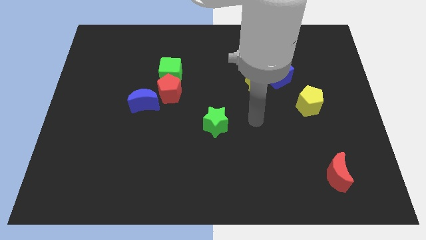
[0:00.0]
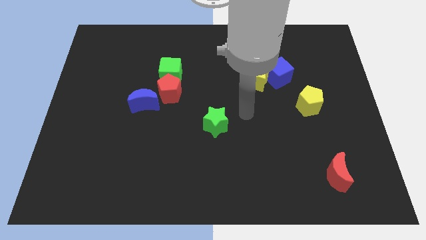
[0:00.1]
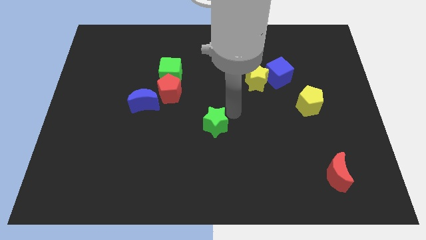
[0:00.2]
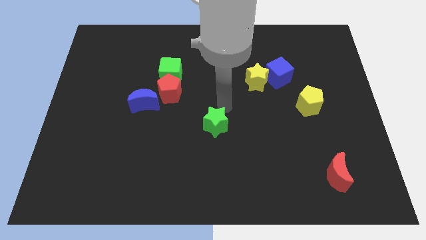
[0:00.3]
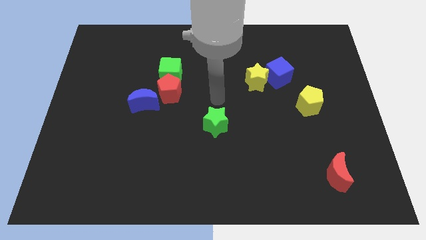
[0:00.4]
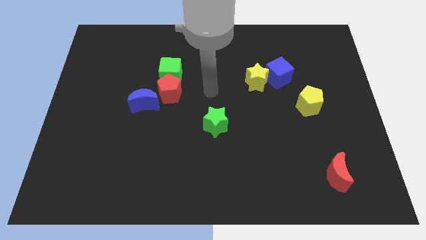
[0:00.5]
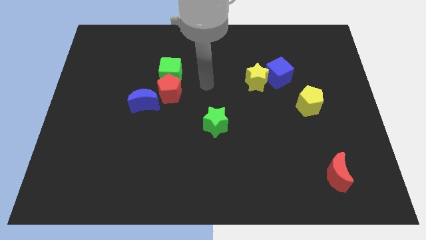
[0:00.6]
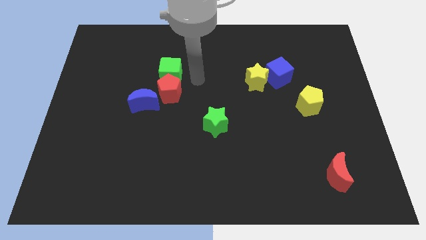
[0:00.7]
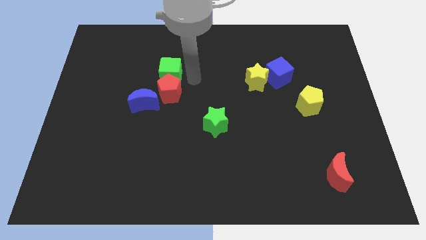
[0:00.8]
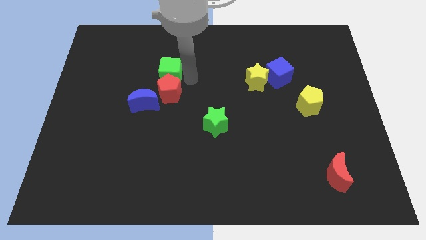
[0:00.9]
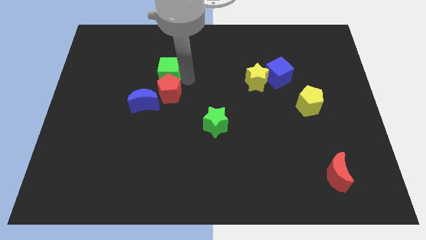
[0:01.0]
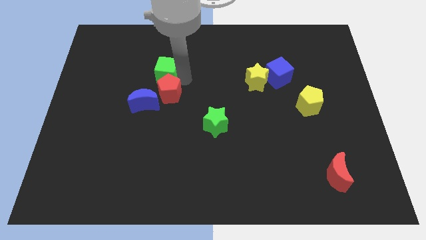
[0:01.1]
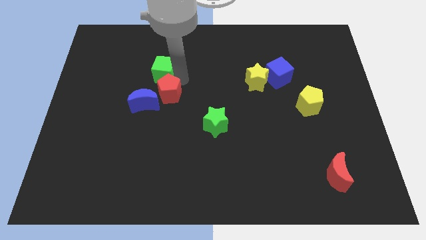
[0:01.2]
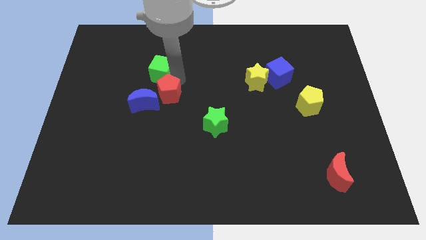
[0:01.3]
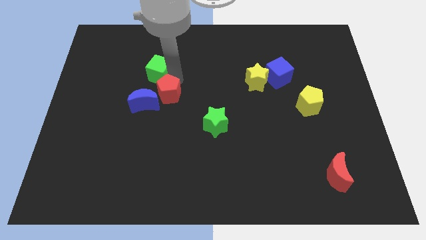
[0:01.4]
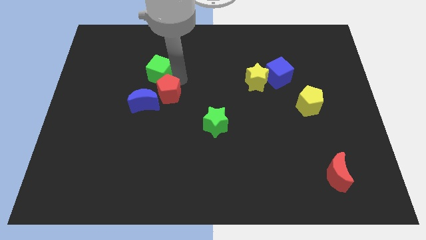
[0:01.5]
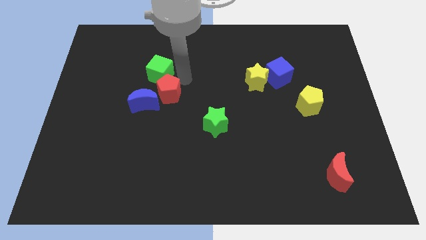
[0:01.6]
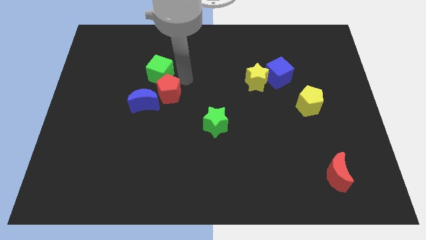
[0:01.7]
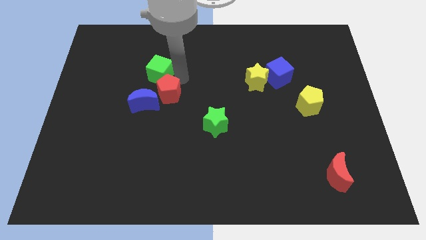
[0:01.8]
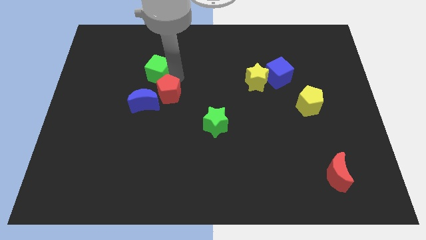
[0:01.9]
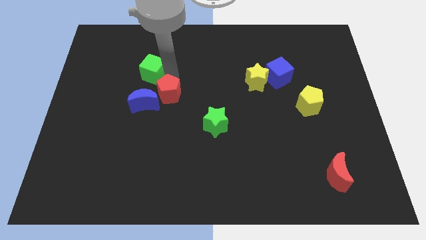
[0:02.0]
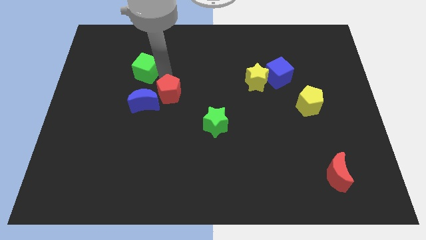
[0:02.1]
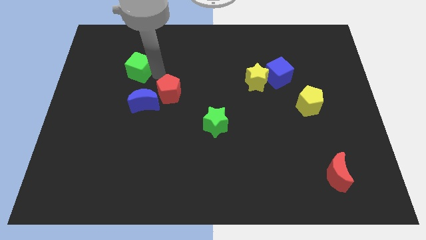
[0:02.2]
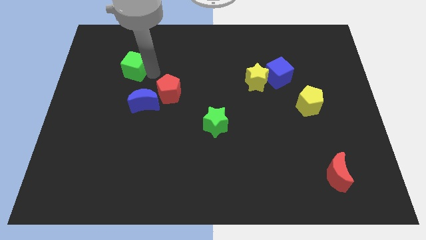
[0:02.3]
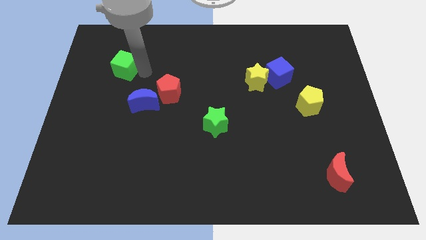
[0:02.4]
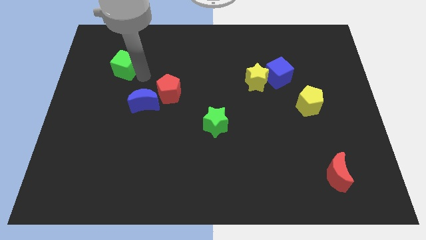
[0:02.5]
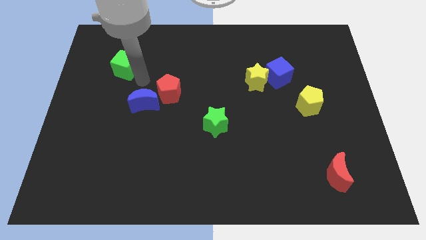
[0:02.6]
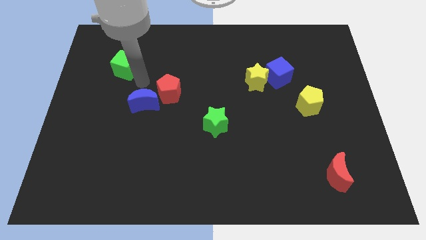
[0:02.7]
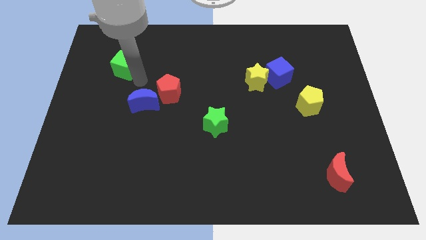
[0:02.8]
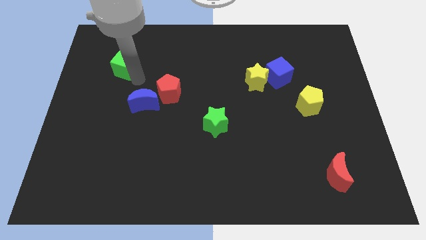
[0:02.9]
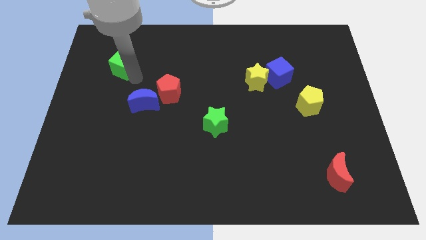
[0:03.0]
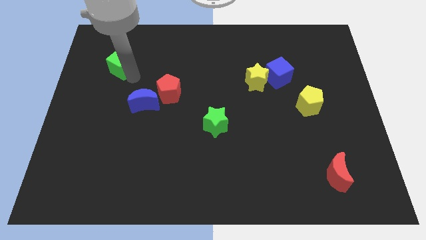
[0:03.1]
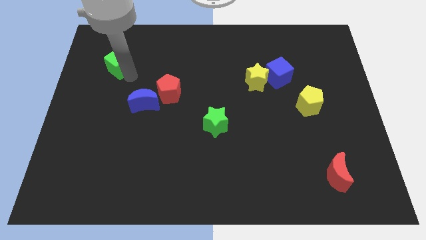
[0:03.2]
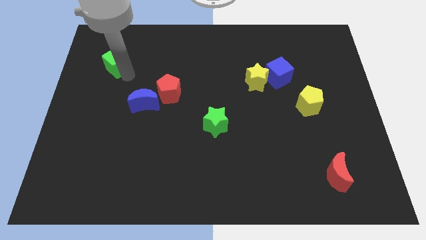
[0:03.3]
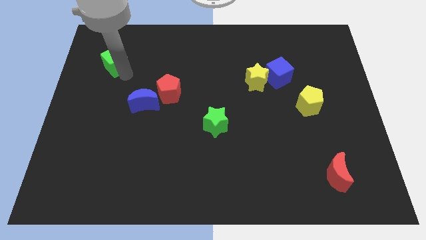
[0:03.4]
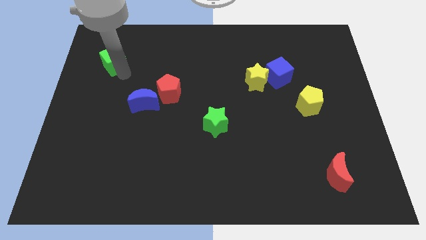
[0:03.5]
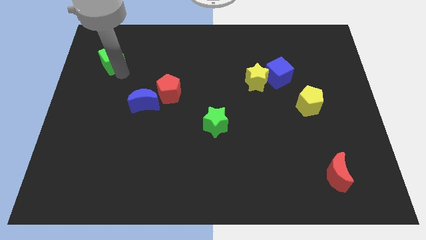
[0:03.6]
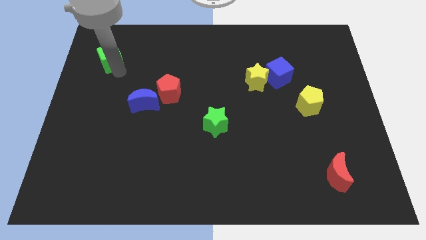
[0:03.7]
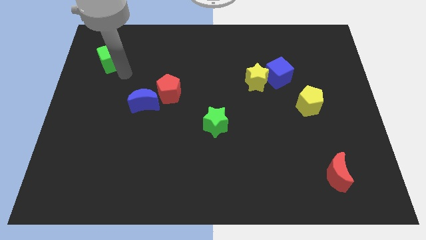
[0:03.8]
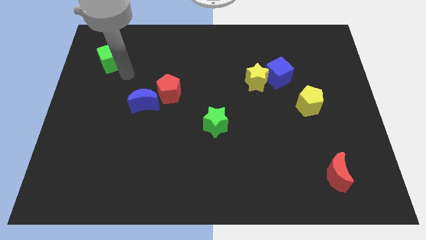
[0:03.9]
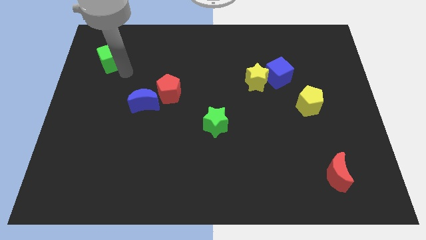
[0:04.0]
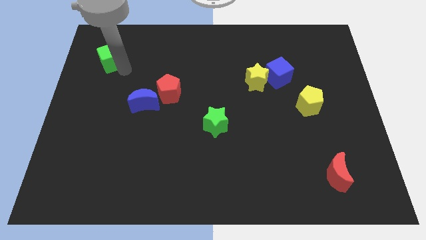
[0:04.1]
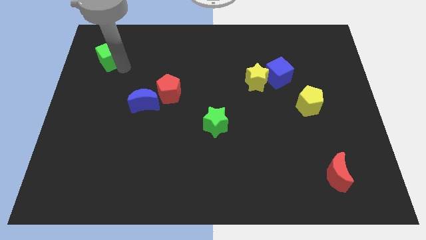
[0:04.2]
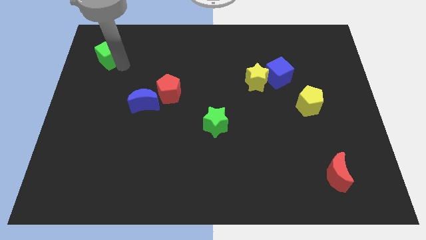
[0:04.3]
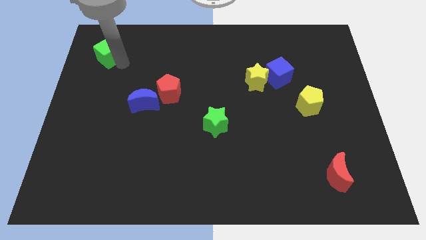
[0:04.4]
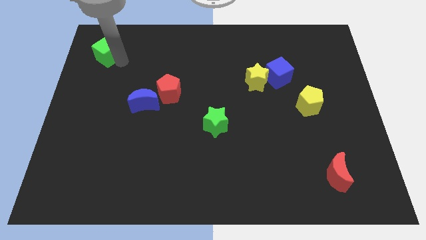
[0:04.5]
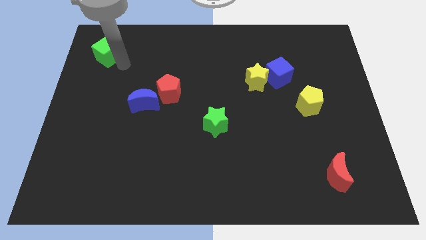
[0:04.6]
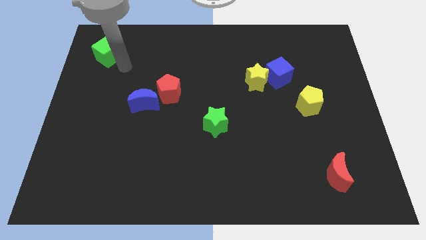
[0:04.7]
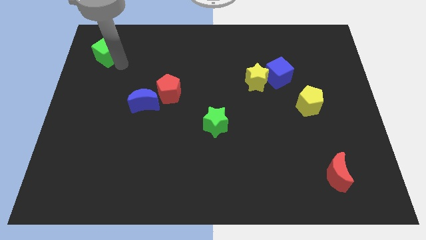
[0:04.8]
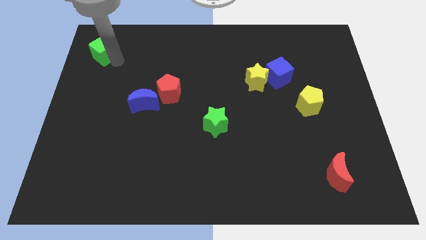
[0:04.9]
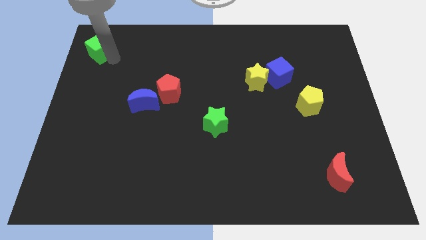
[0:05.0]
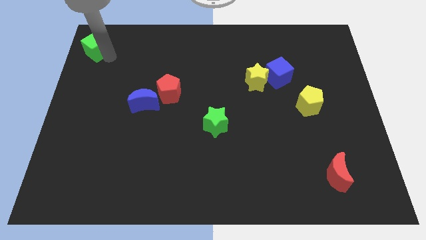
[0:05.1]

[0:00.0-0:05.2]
put the green cube to the top left of the board

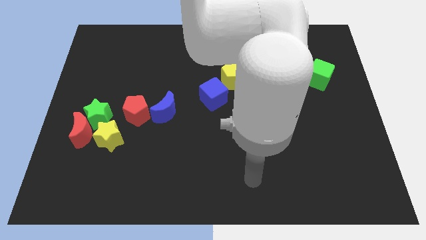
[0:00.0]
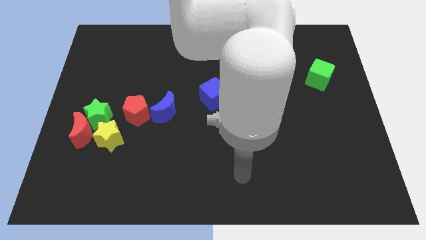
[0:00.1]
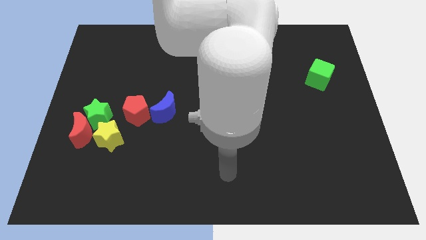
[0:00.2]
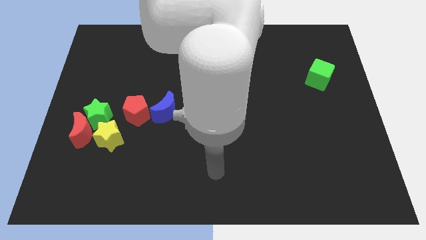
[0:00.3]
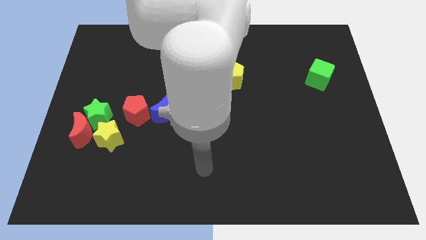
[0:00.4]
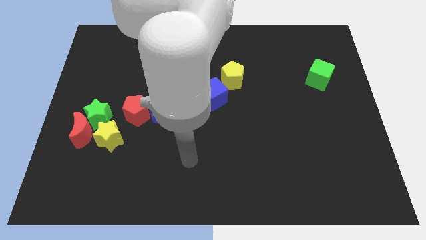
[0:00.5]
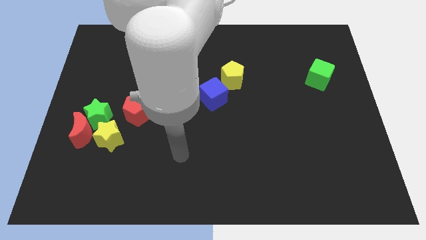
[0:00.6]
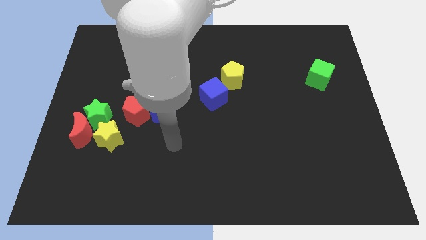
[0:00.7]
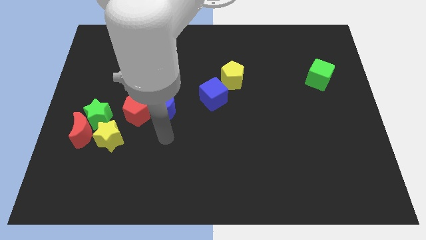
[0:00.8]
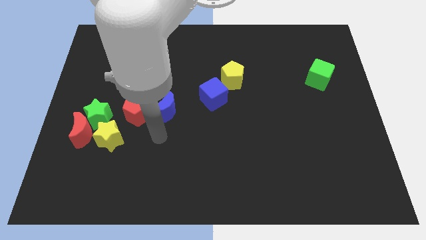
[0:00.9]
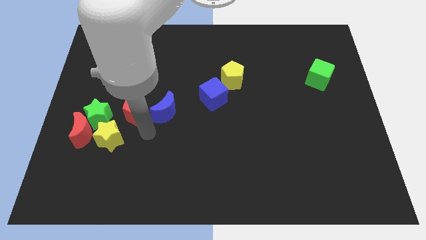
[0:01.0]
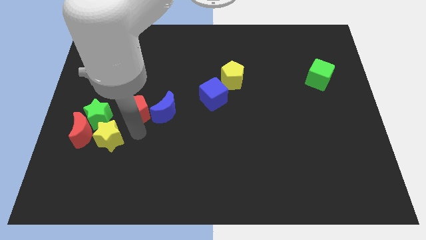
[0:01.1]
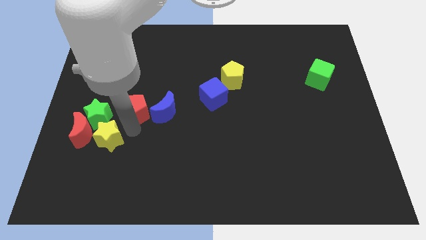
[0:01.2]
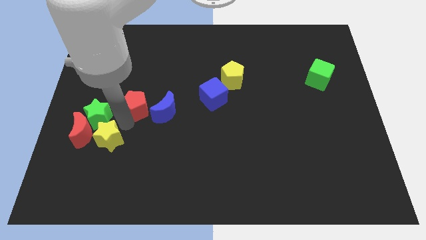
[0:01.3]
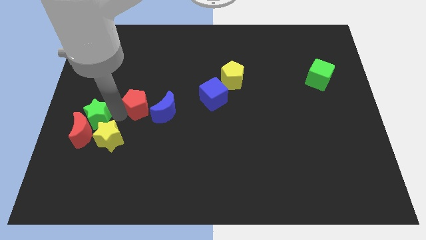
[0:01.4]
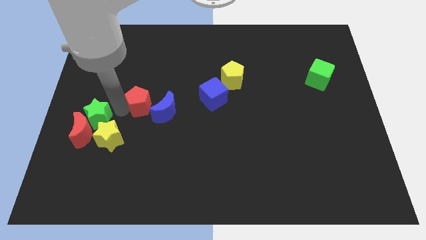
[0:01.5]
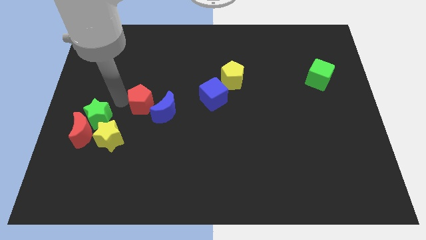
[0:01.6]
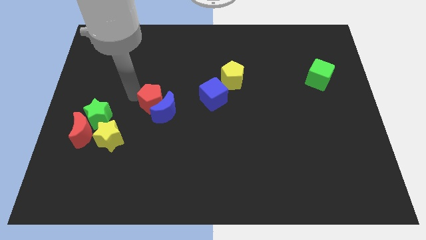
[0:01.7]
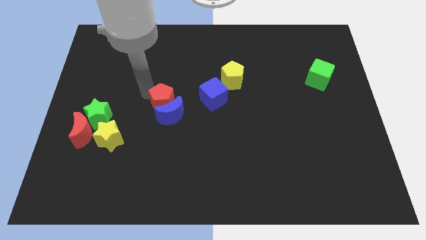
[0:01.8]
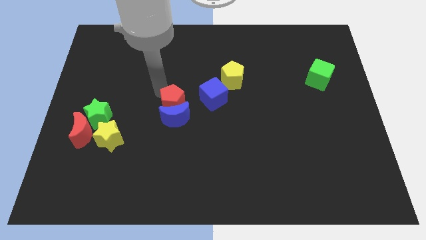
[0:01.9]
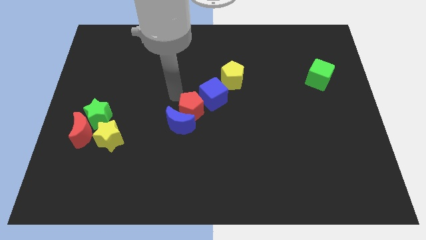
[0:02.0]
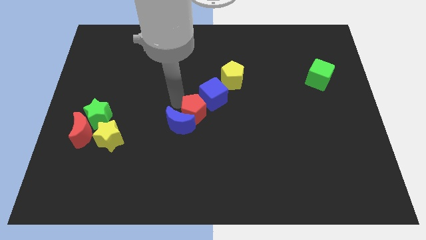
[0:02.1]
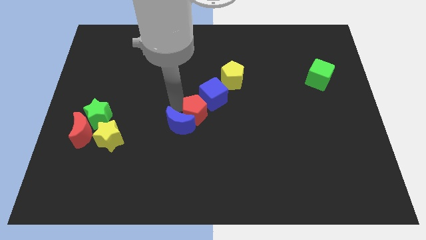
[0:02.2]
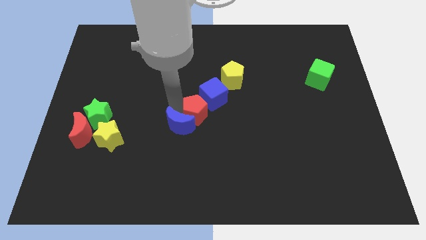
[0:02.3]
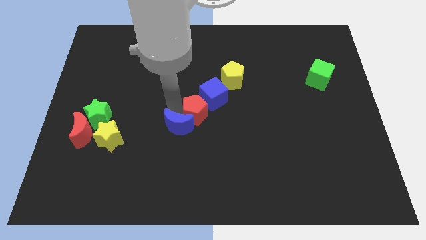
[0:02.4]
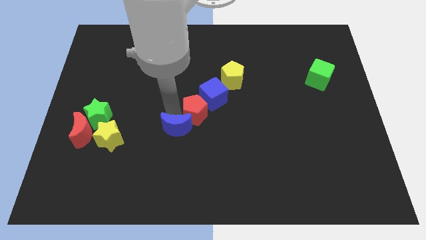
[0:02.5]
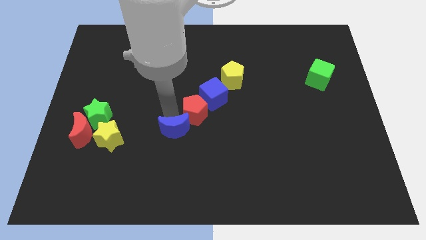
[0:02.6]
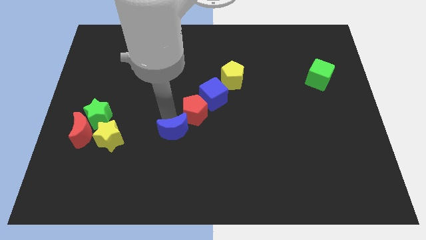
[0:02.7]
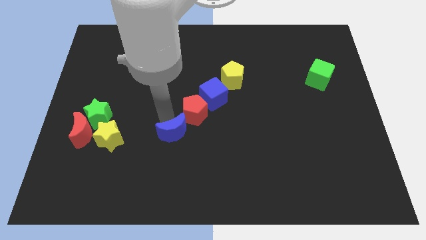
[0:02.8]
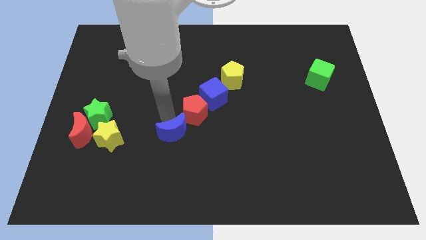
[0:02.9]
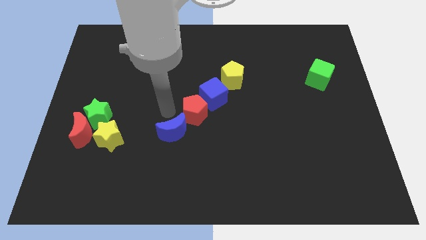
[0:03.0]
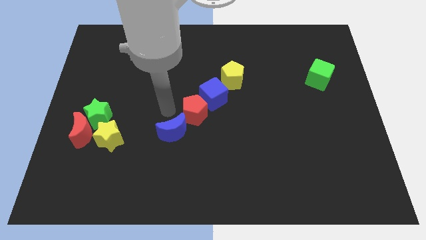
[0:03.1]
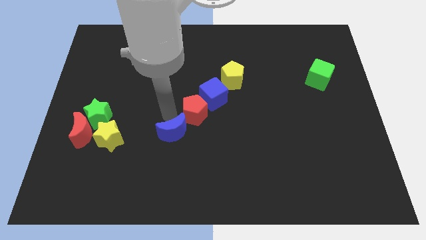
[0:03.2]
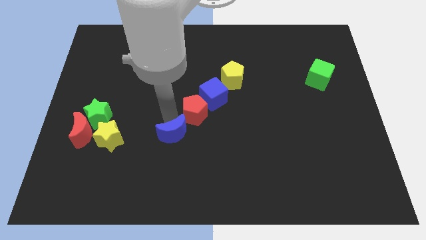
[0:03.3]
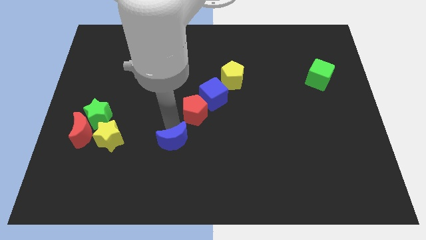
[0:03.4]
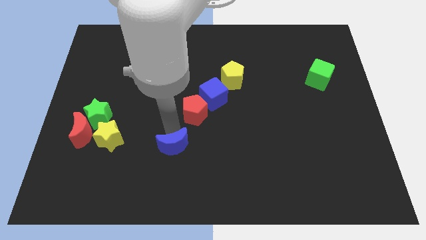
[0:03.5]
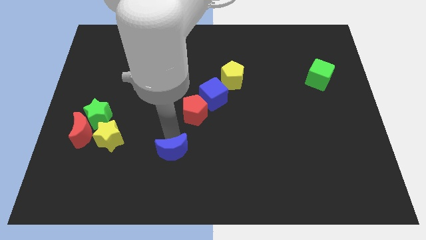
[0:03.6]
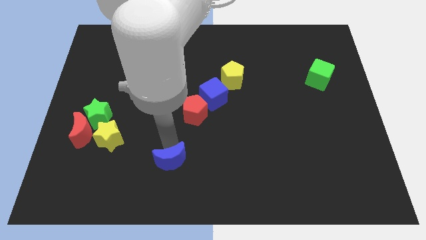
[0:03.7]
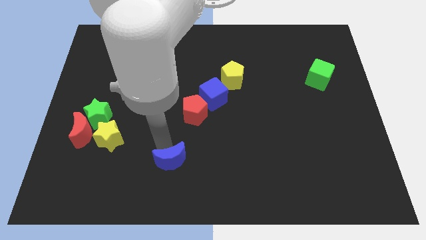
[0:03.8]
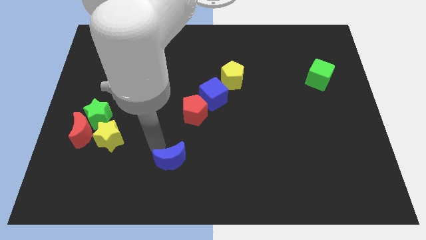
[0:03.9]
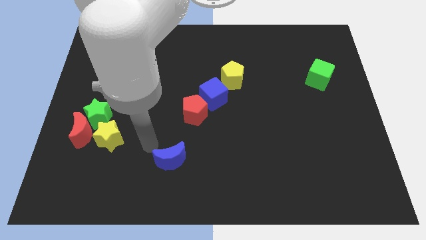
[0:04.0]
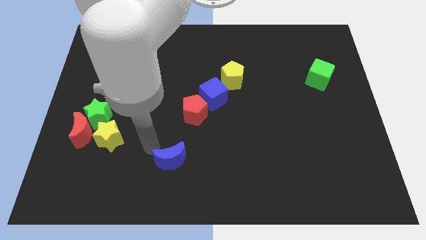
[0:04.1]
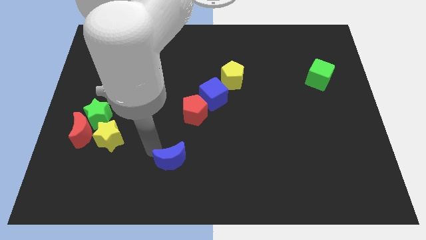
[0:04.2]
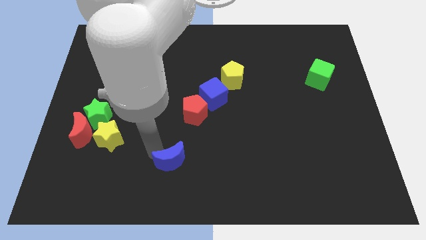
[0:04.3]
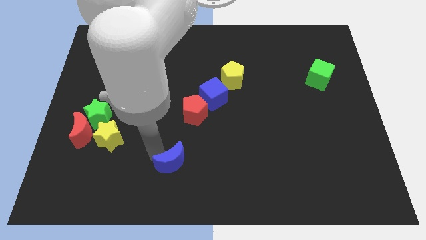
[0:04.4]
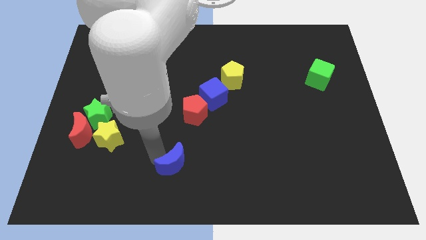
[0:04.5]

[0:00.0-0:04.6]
move the blue moon to the bottom
